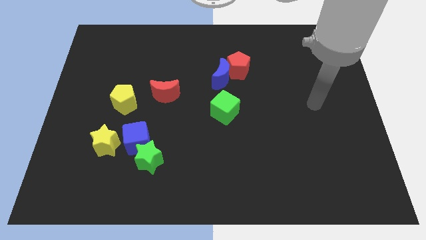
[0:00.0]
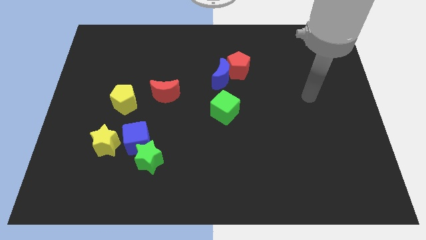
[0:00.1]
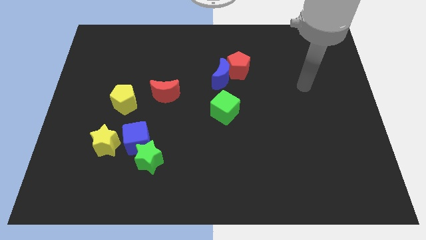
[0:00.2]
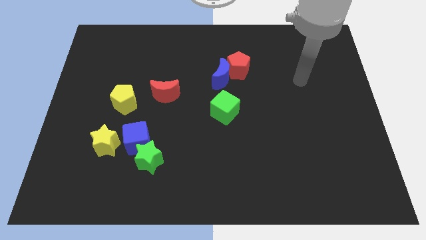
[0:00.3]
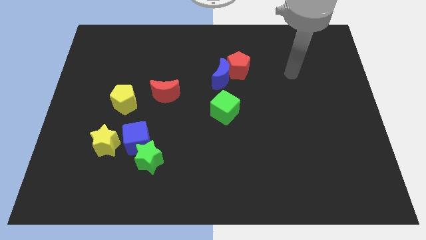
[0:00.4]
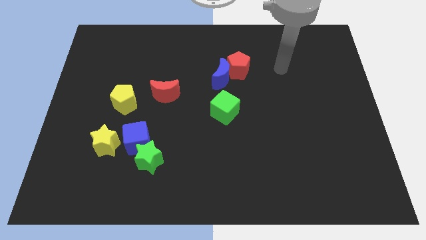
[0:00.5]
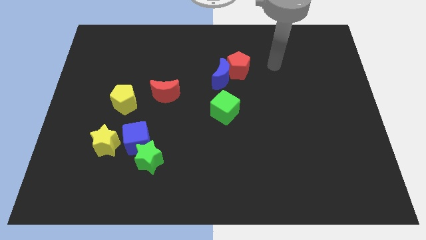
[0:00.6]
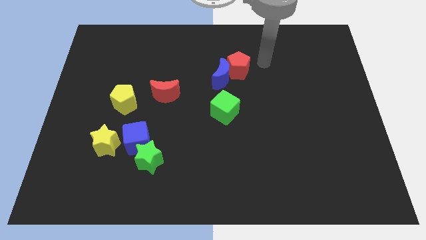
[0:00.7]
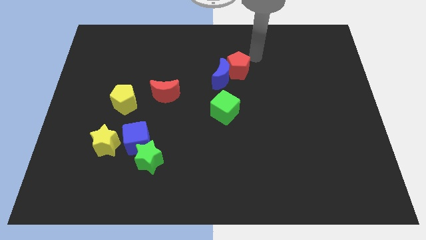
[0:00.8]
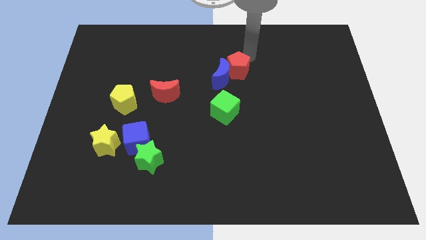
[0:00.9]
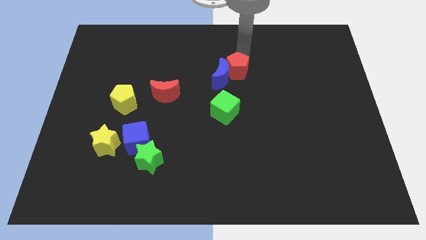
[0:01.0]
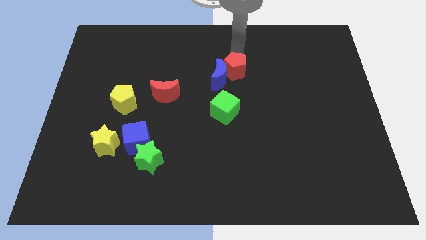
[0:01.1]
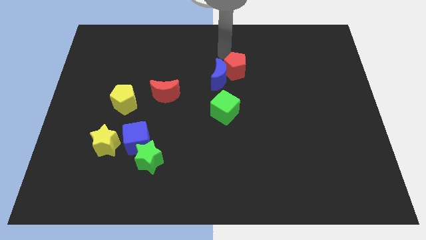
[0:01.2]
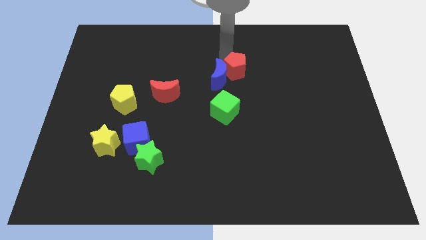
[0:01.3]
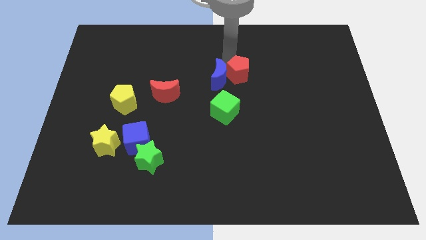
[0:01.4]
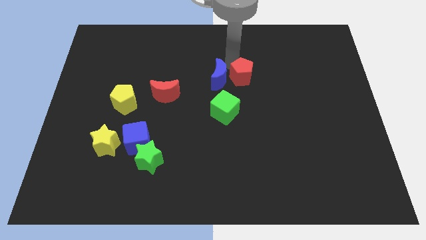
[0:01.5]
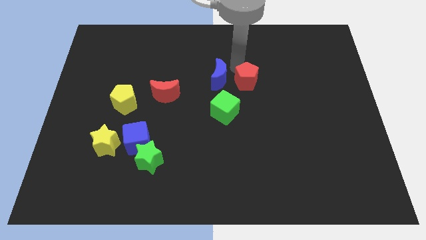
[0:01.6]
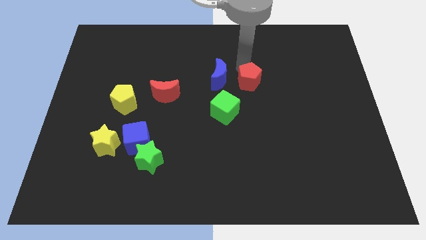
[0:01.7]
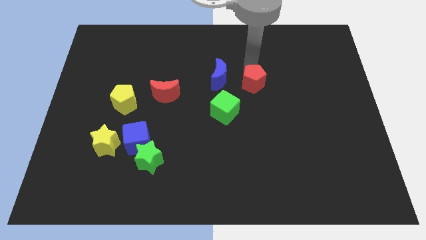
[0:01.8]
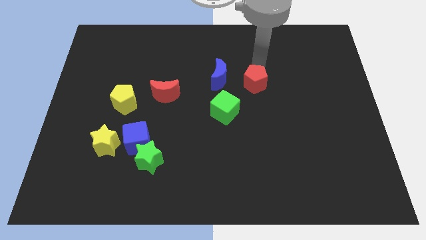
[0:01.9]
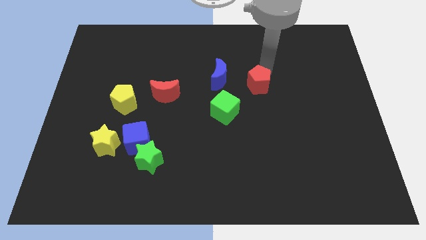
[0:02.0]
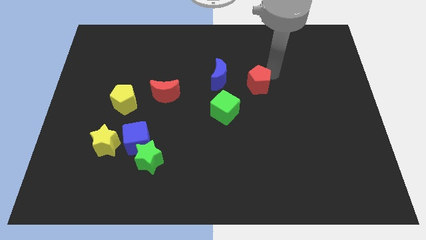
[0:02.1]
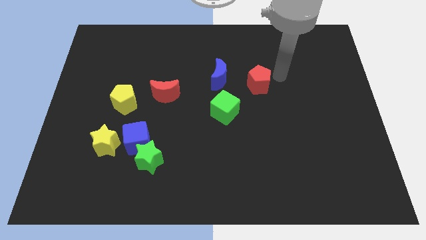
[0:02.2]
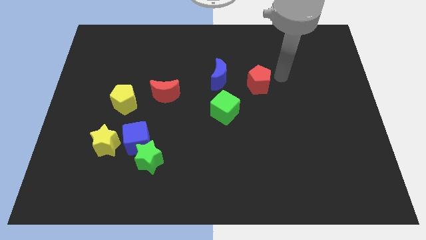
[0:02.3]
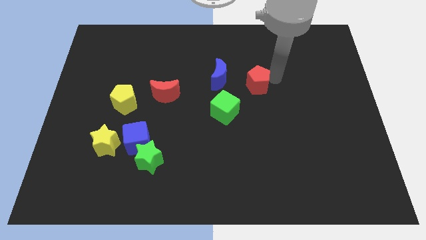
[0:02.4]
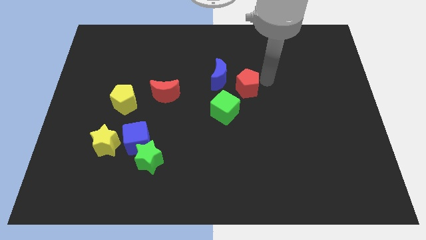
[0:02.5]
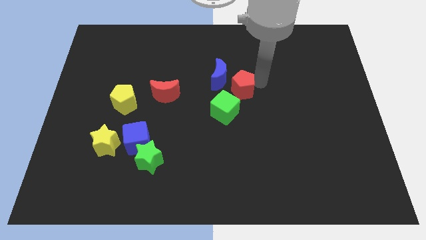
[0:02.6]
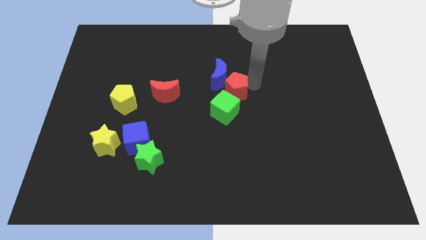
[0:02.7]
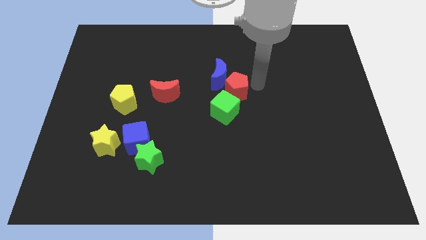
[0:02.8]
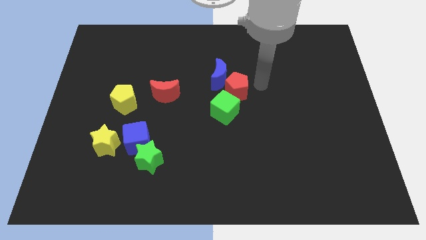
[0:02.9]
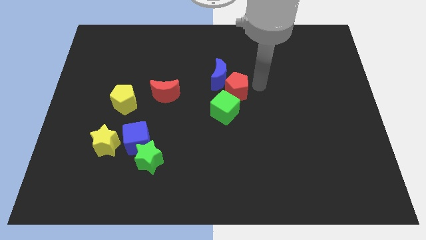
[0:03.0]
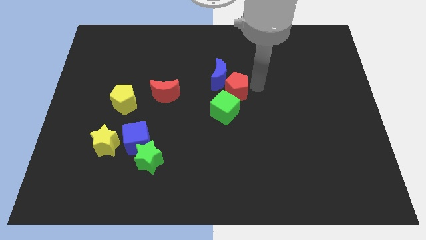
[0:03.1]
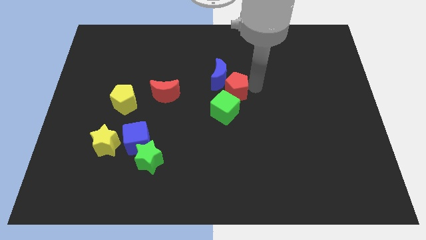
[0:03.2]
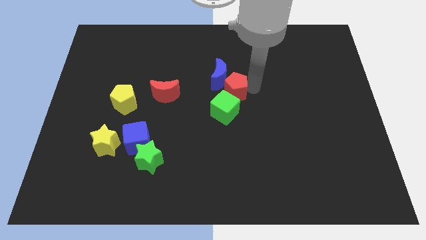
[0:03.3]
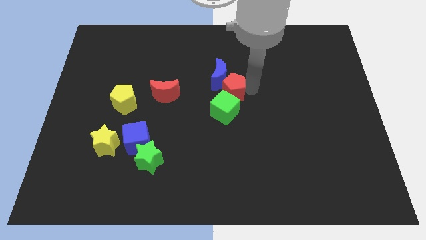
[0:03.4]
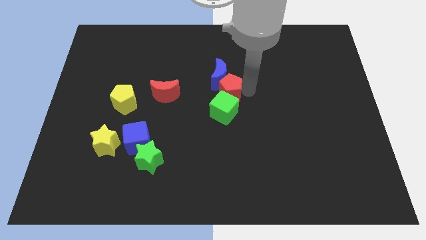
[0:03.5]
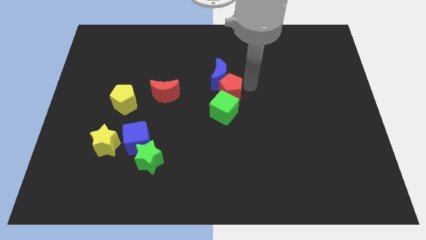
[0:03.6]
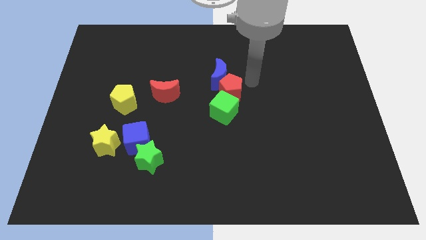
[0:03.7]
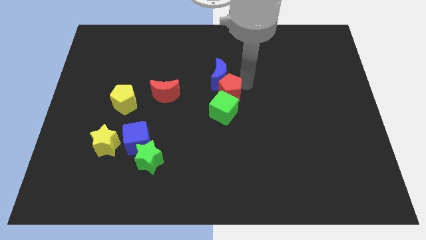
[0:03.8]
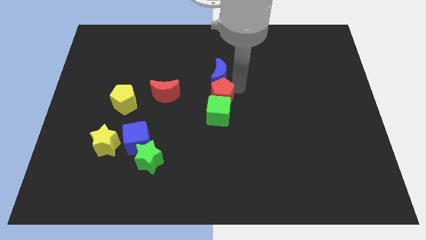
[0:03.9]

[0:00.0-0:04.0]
move the red pentagon slightly diagonally downwards and to the left

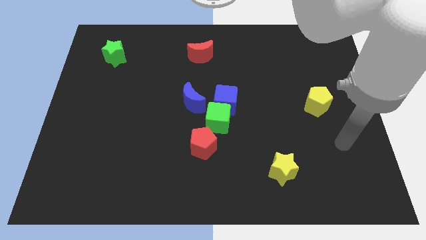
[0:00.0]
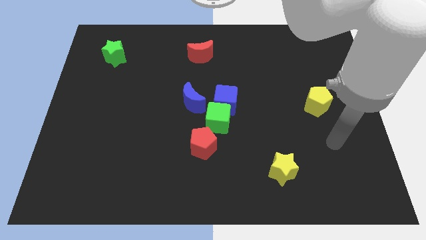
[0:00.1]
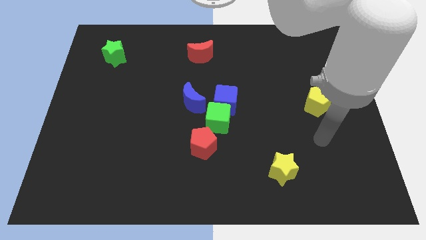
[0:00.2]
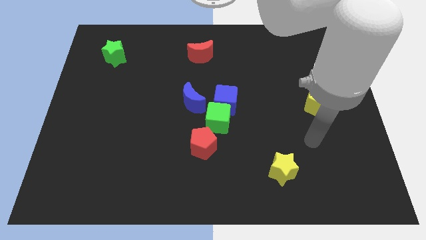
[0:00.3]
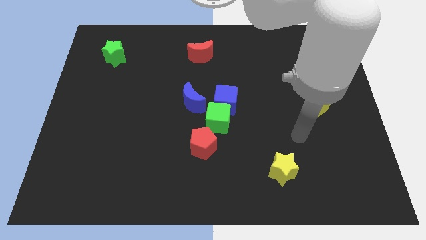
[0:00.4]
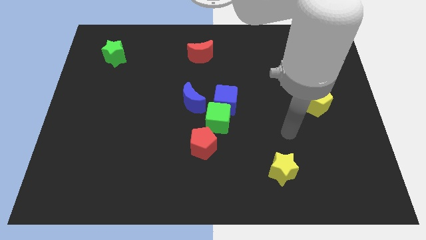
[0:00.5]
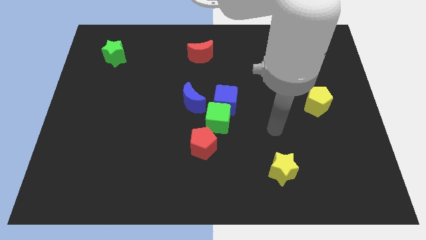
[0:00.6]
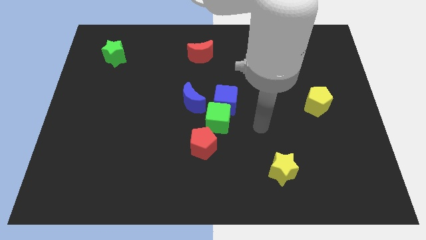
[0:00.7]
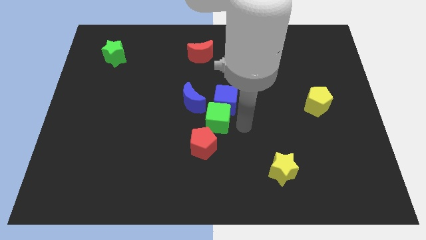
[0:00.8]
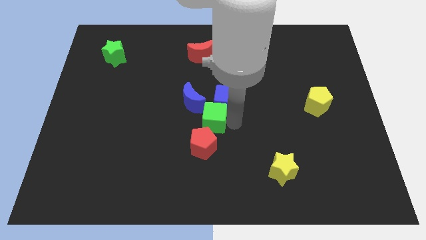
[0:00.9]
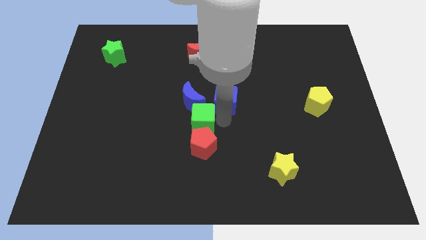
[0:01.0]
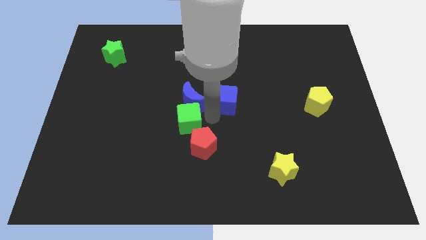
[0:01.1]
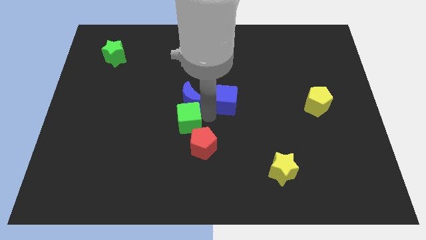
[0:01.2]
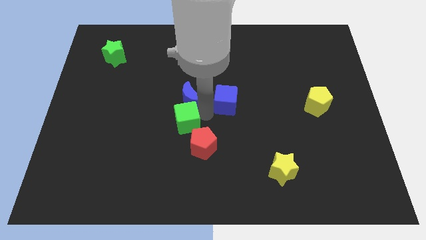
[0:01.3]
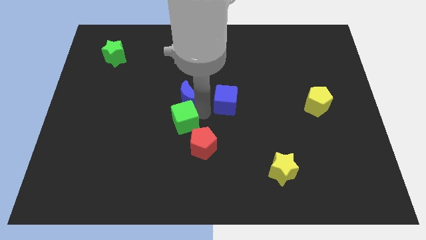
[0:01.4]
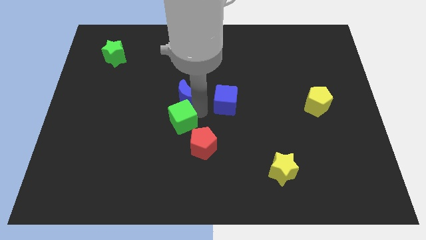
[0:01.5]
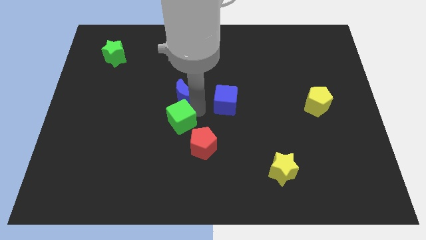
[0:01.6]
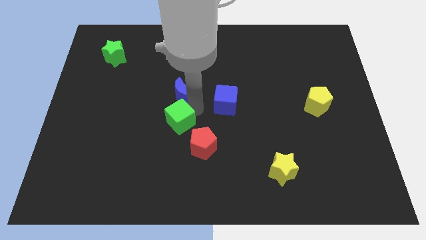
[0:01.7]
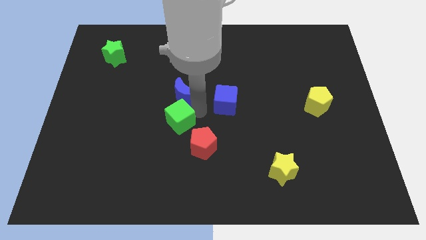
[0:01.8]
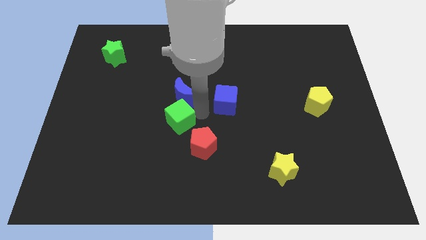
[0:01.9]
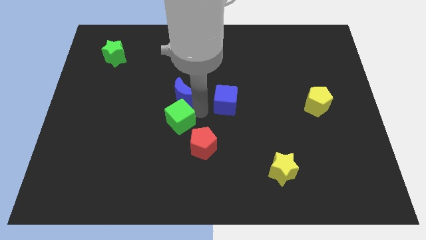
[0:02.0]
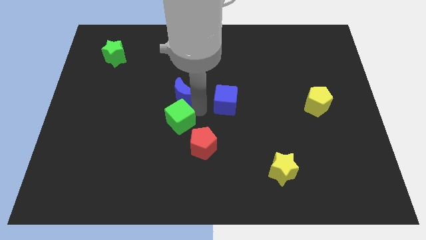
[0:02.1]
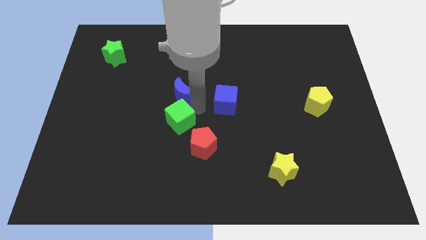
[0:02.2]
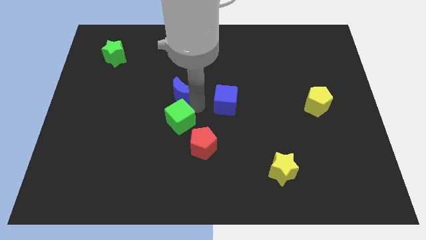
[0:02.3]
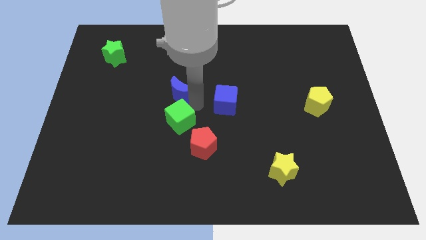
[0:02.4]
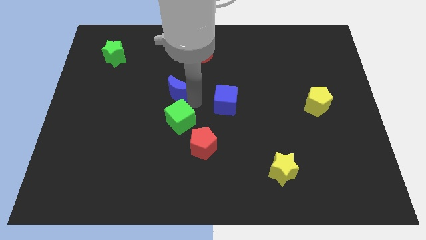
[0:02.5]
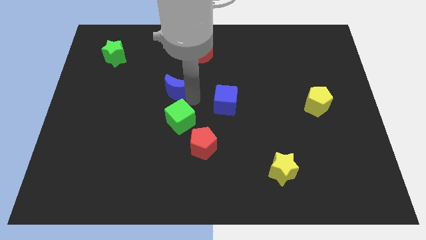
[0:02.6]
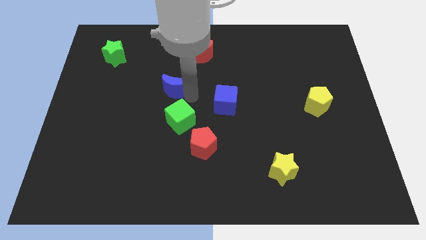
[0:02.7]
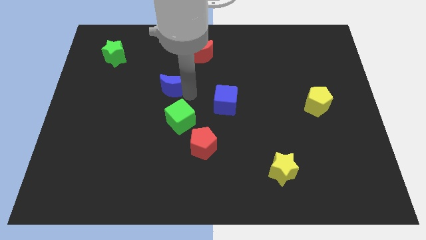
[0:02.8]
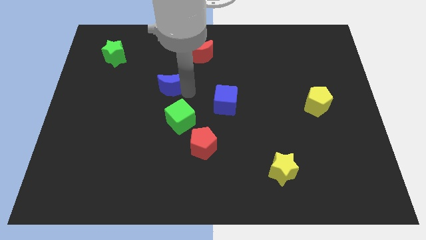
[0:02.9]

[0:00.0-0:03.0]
move the blue moon slightly up and to the left diagonally

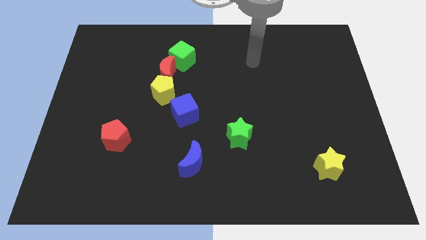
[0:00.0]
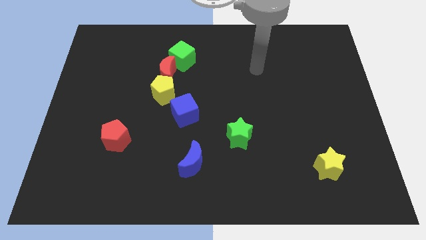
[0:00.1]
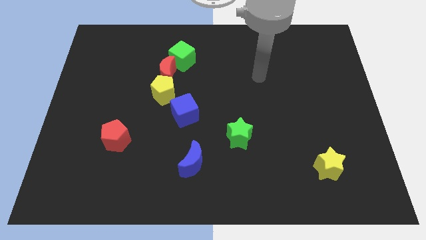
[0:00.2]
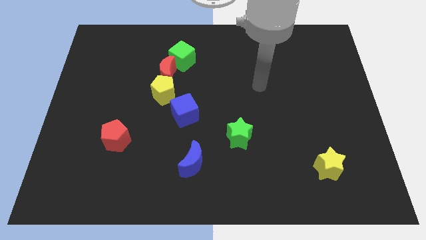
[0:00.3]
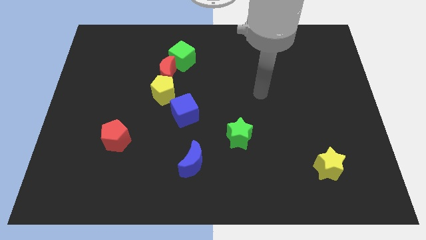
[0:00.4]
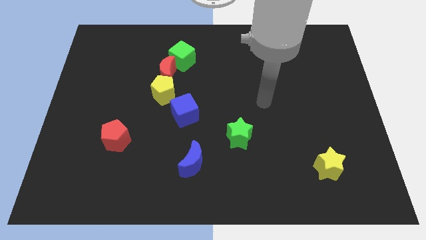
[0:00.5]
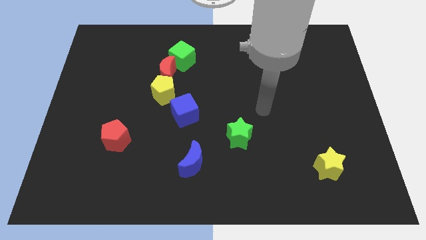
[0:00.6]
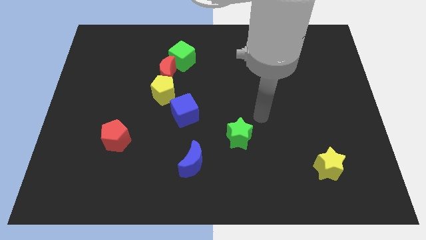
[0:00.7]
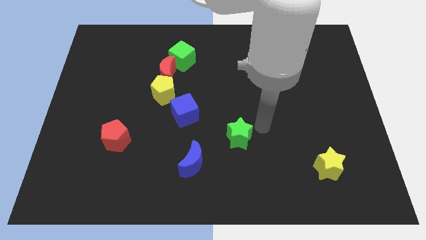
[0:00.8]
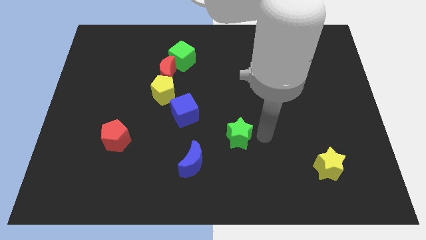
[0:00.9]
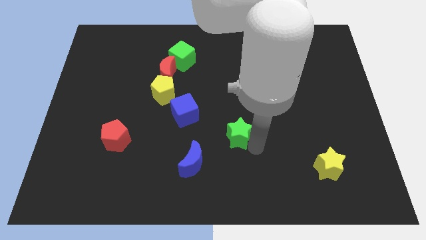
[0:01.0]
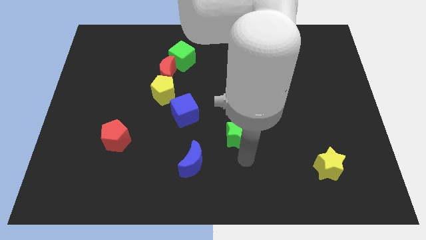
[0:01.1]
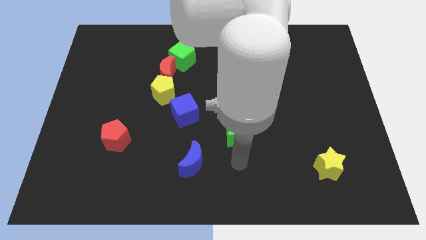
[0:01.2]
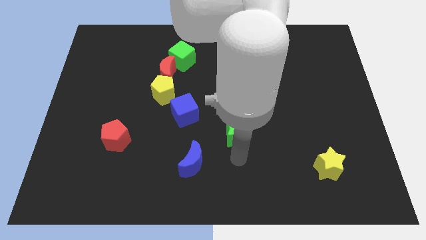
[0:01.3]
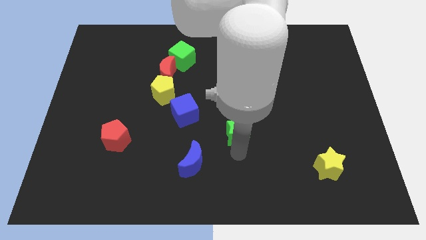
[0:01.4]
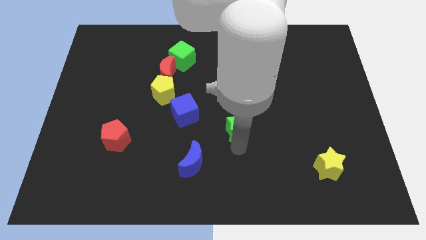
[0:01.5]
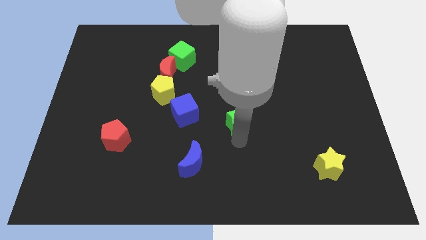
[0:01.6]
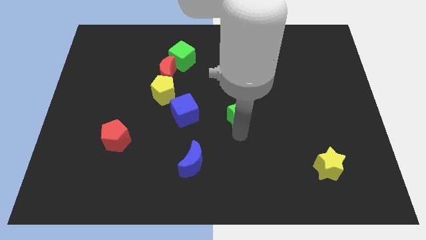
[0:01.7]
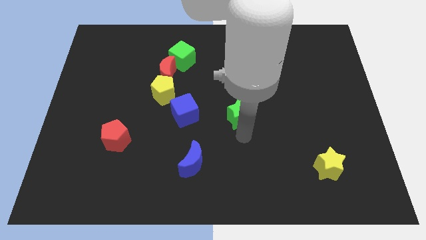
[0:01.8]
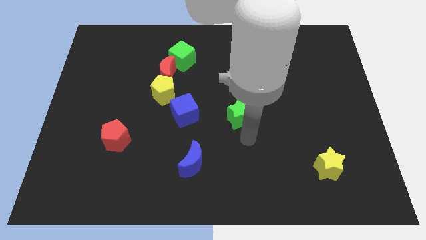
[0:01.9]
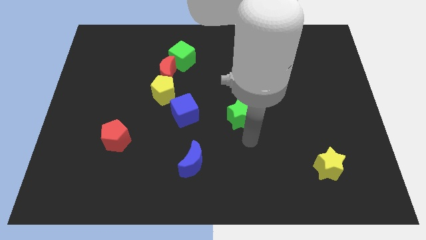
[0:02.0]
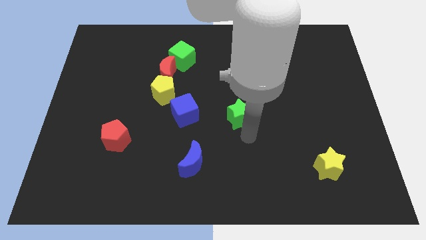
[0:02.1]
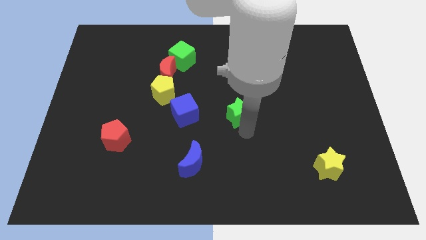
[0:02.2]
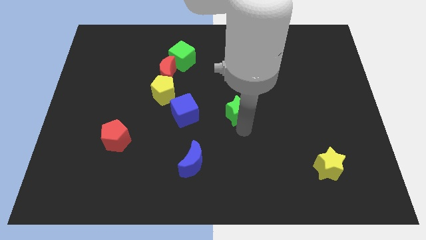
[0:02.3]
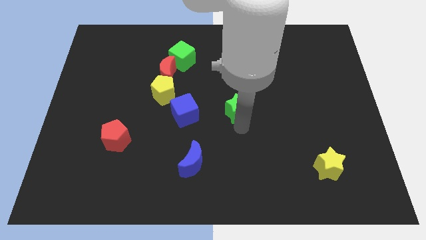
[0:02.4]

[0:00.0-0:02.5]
move the green star a bit up
